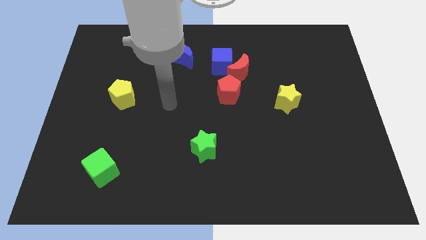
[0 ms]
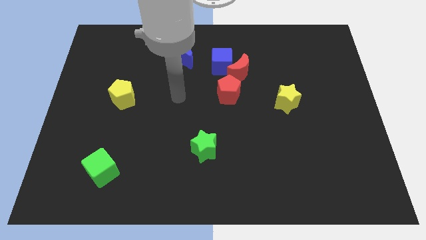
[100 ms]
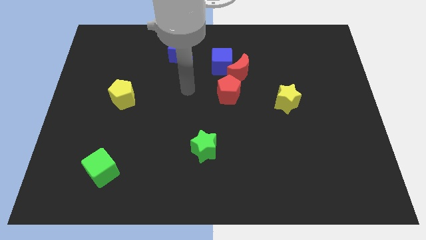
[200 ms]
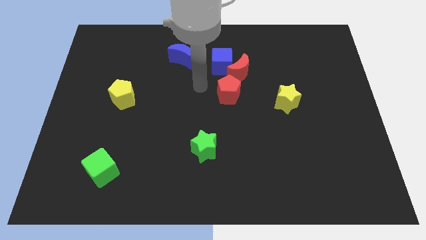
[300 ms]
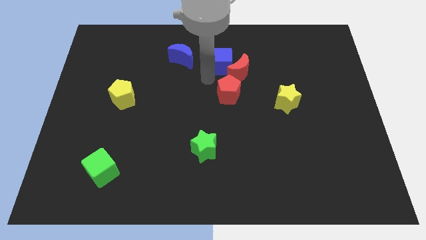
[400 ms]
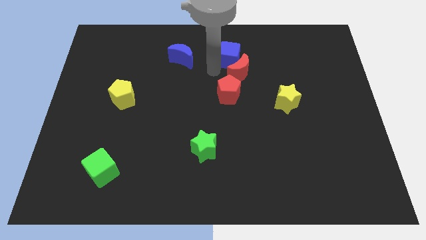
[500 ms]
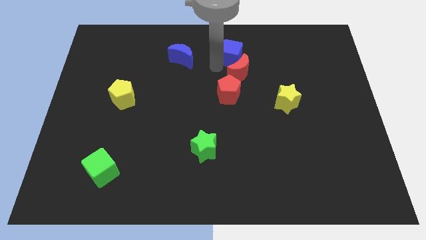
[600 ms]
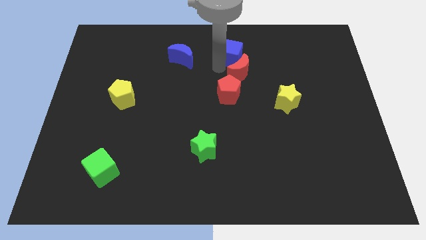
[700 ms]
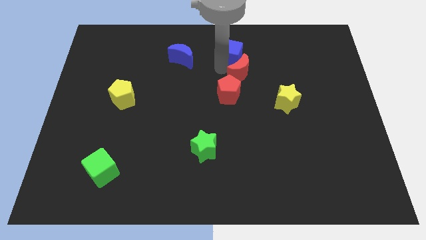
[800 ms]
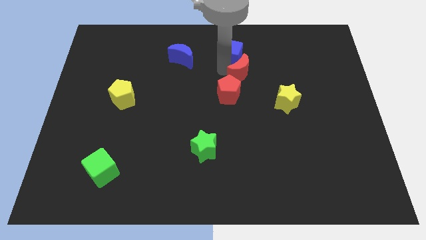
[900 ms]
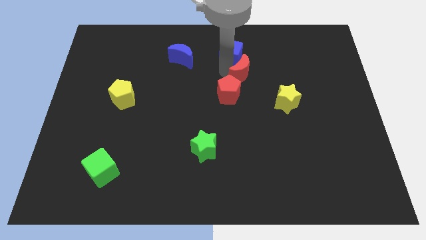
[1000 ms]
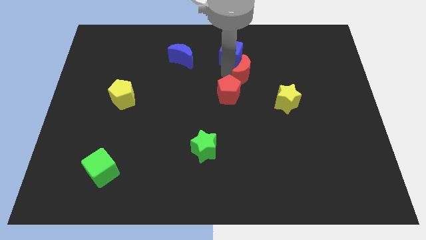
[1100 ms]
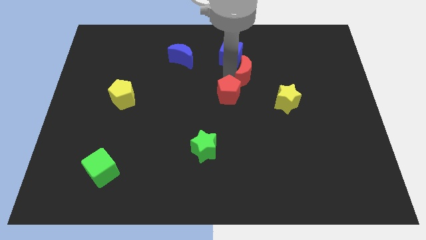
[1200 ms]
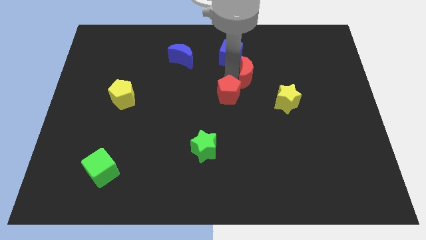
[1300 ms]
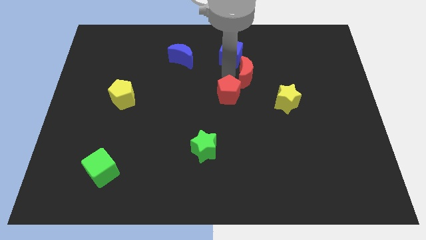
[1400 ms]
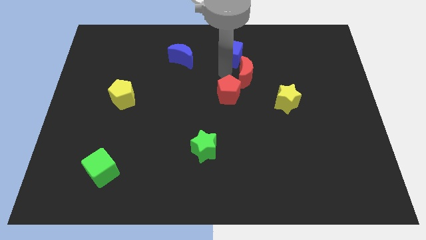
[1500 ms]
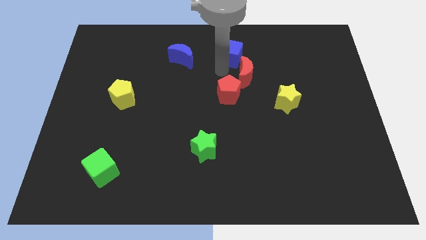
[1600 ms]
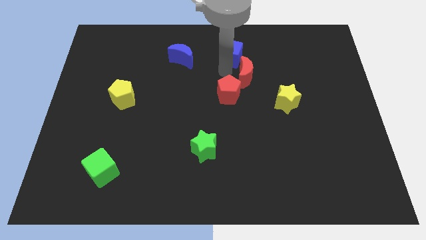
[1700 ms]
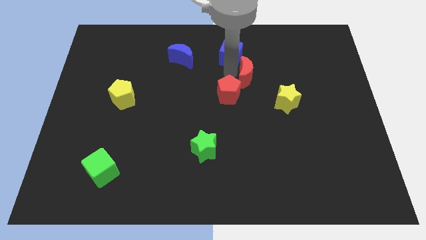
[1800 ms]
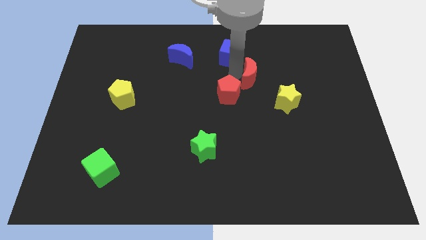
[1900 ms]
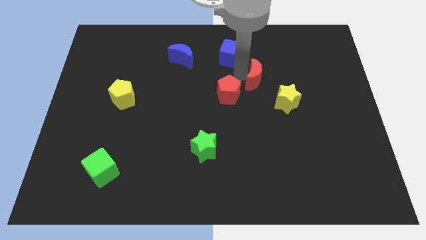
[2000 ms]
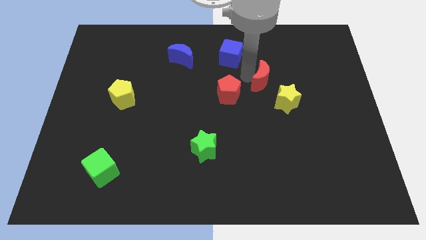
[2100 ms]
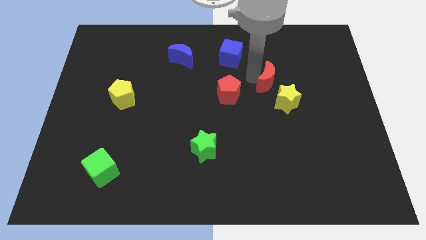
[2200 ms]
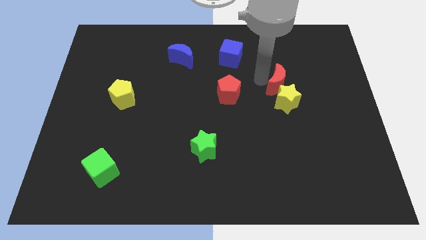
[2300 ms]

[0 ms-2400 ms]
slightly push the red moon downwards and then right

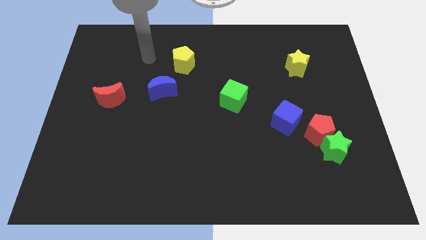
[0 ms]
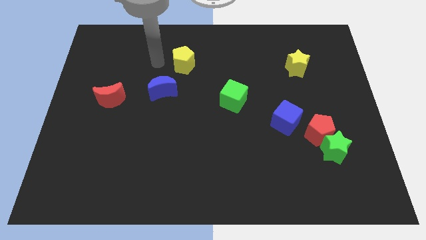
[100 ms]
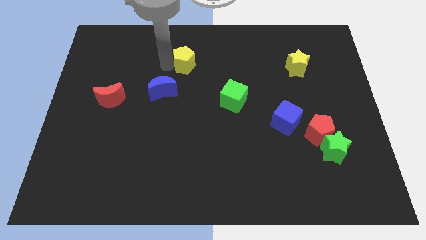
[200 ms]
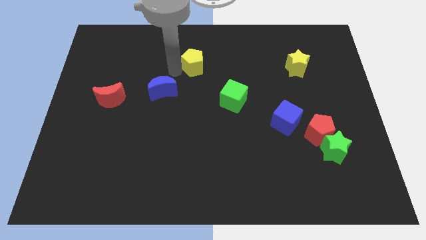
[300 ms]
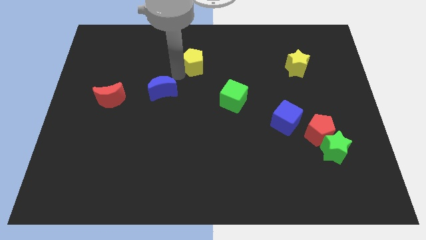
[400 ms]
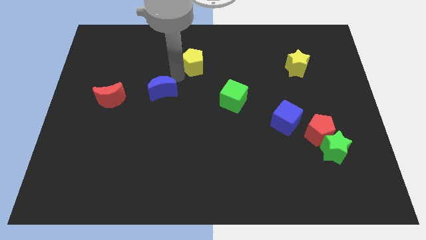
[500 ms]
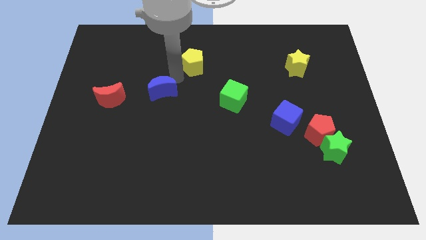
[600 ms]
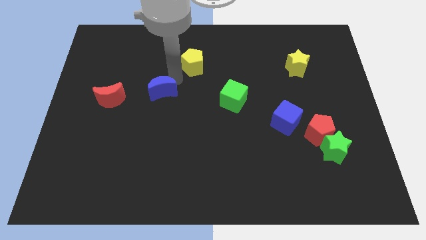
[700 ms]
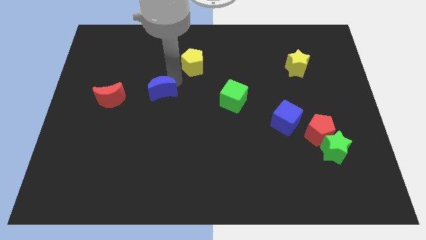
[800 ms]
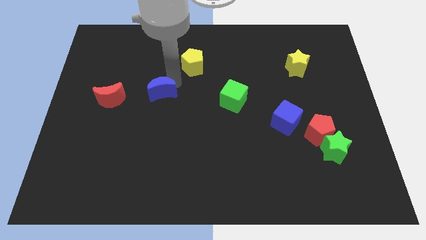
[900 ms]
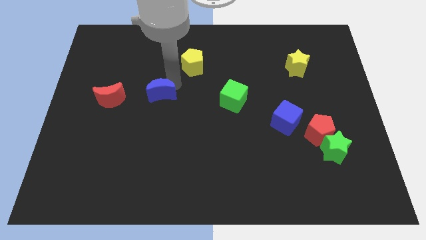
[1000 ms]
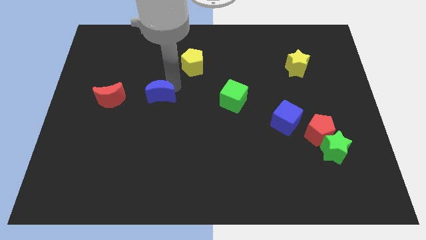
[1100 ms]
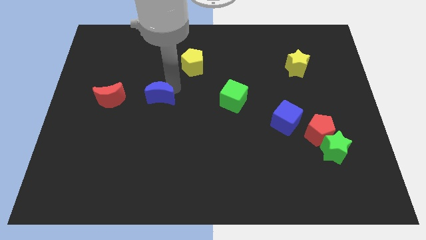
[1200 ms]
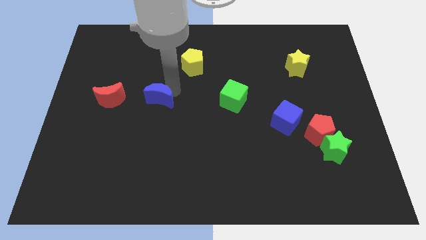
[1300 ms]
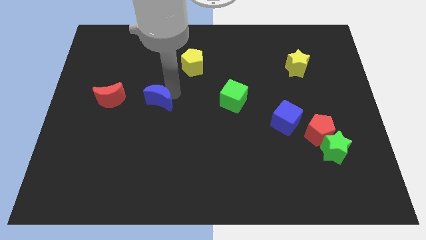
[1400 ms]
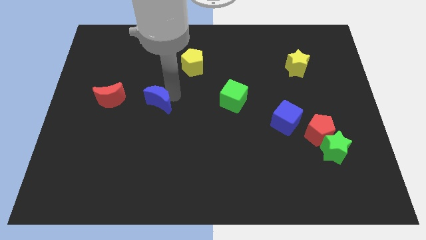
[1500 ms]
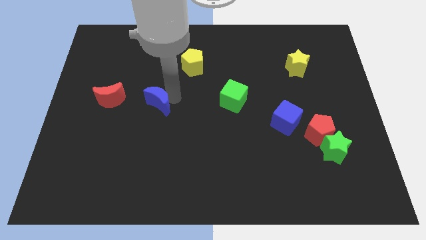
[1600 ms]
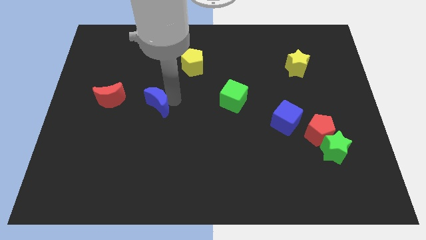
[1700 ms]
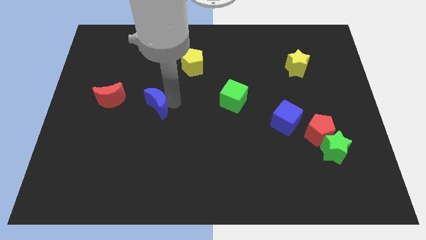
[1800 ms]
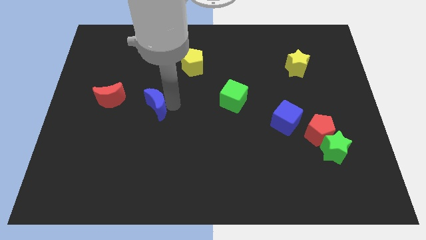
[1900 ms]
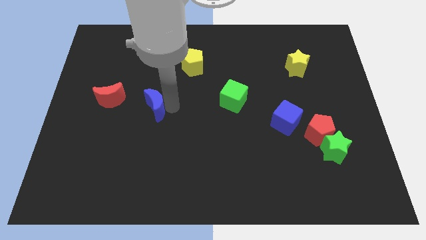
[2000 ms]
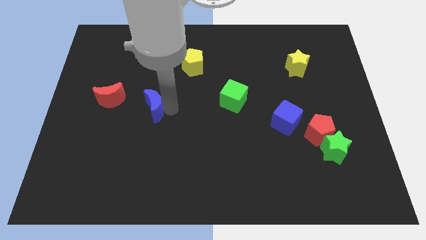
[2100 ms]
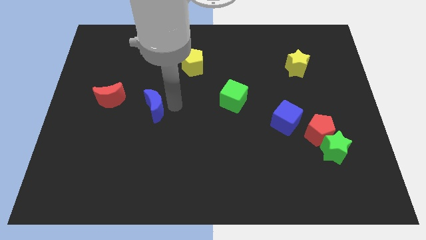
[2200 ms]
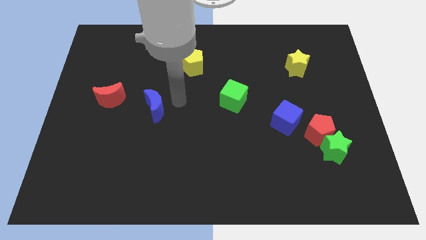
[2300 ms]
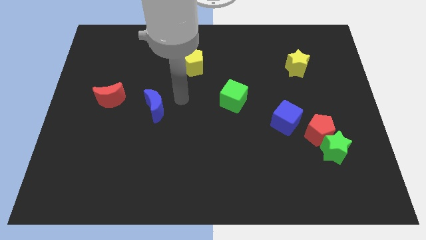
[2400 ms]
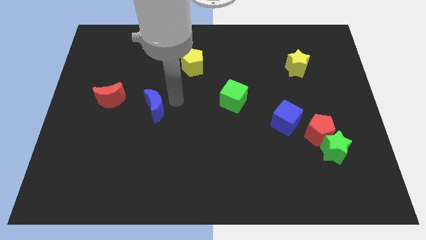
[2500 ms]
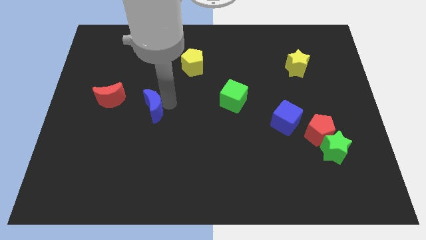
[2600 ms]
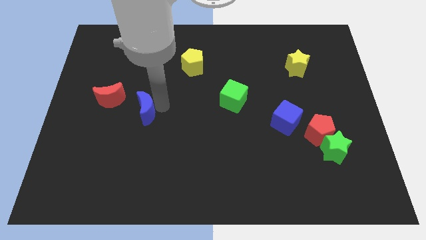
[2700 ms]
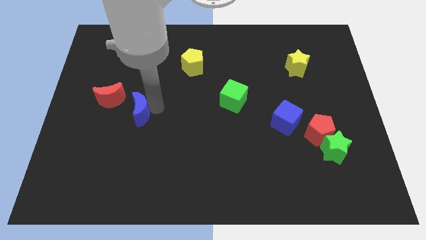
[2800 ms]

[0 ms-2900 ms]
slightly slide the blue moon diagonally downwards and left

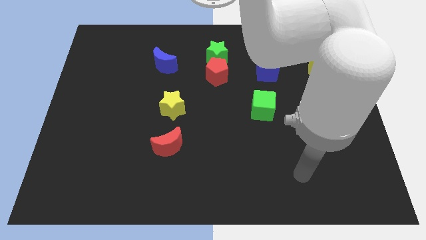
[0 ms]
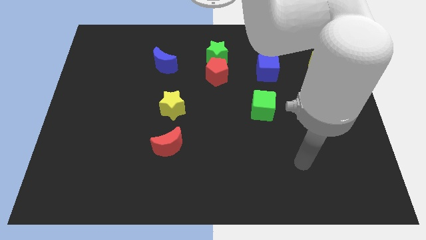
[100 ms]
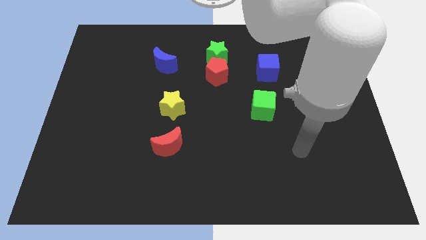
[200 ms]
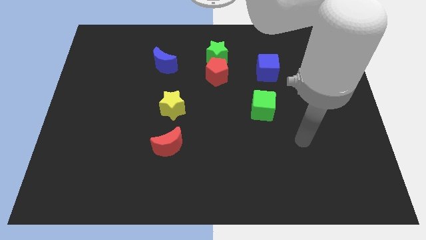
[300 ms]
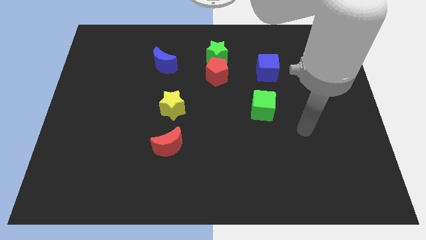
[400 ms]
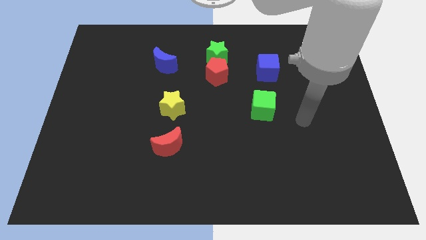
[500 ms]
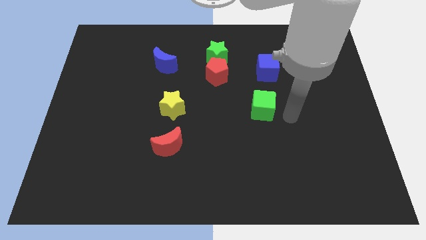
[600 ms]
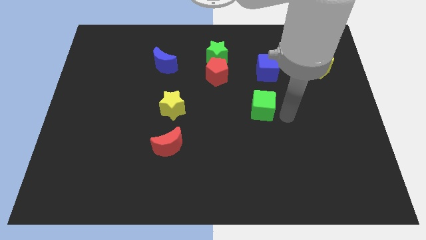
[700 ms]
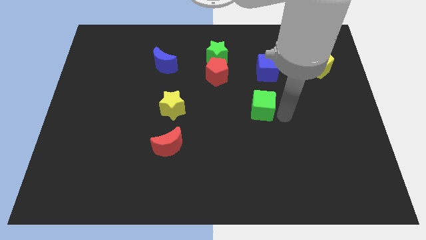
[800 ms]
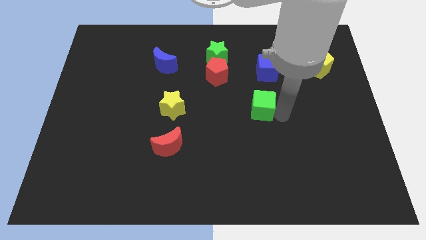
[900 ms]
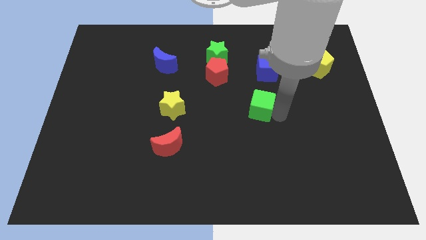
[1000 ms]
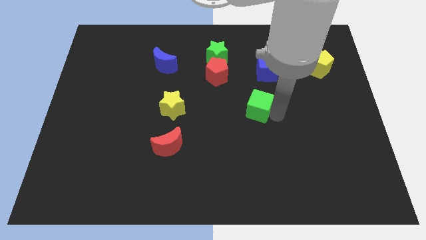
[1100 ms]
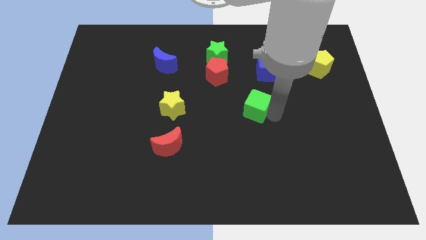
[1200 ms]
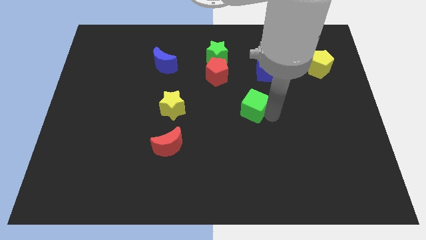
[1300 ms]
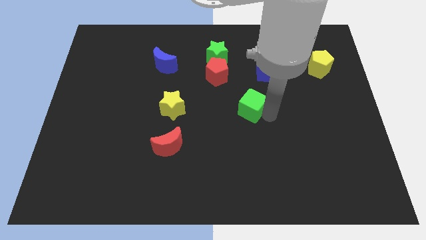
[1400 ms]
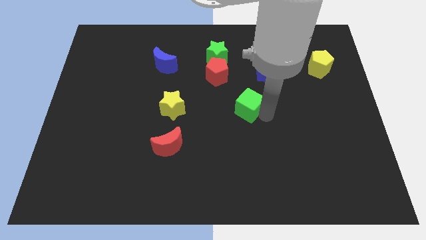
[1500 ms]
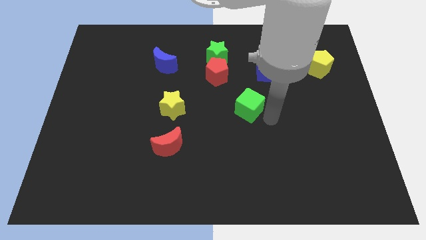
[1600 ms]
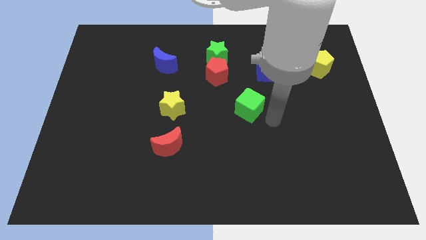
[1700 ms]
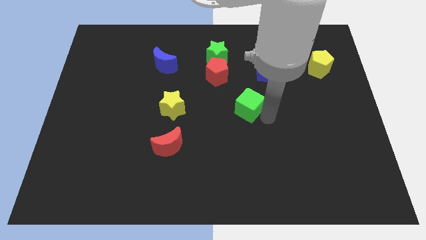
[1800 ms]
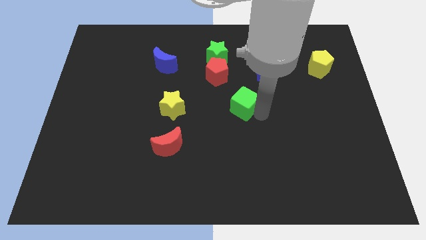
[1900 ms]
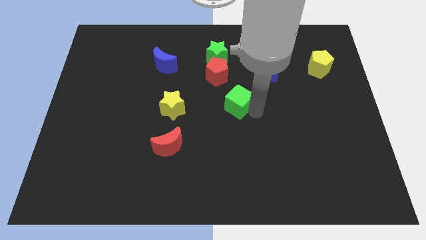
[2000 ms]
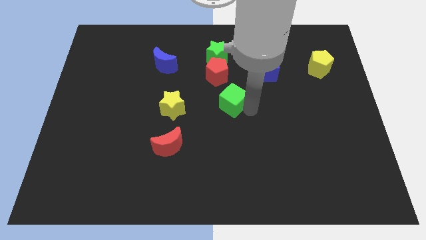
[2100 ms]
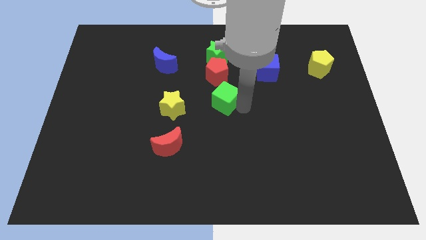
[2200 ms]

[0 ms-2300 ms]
slightly move the green cube up and then left

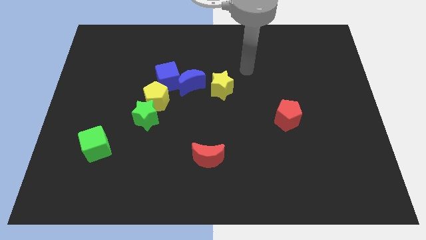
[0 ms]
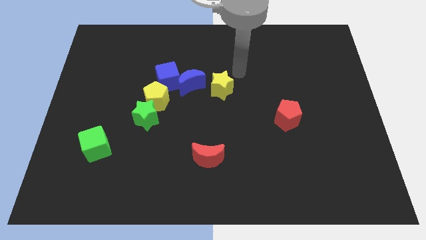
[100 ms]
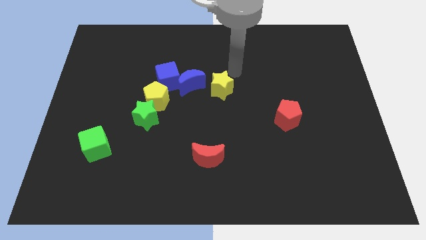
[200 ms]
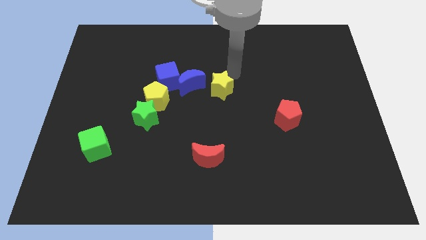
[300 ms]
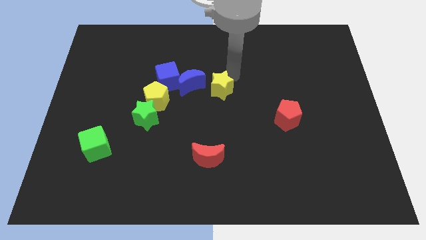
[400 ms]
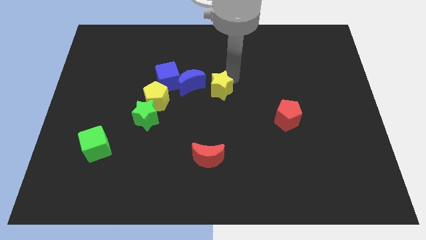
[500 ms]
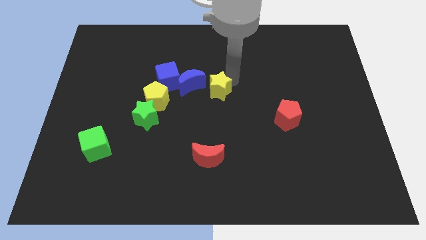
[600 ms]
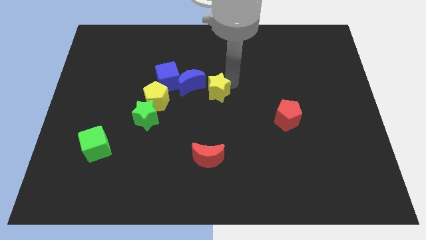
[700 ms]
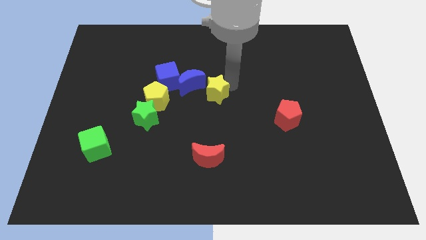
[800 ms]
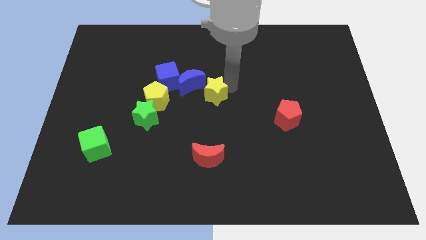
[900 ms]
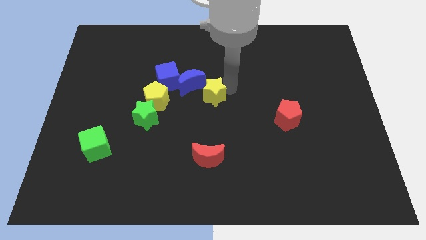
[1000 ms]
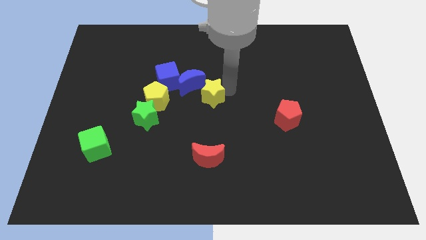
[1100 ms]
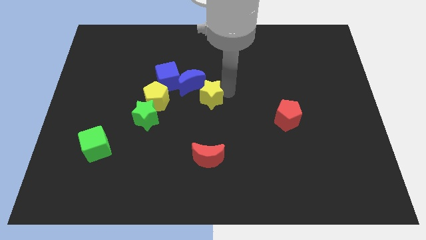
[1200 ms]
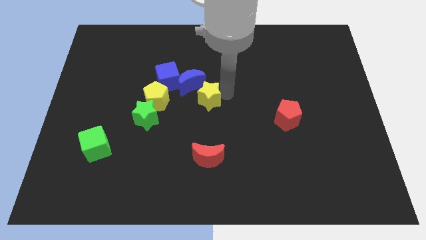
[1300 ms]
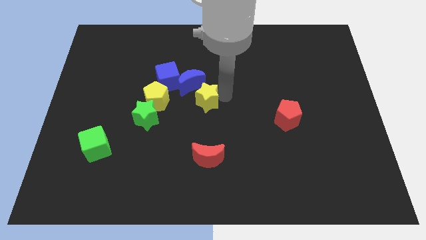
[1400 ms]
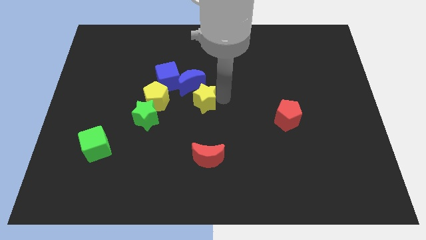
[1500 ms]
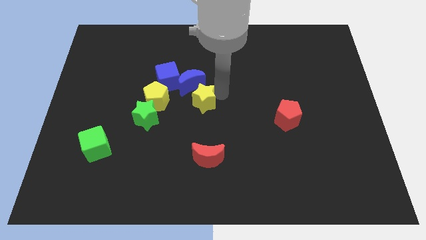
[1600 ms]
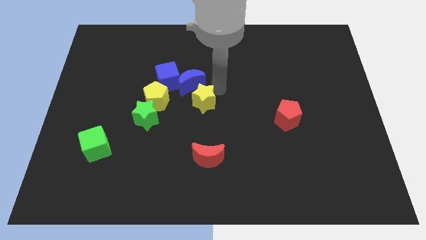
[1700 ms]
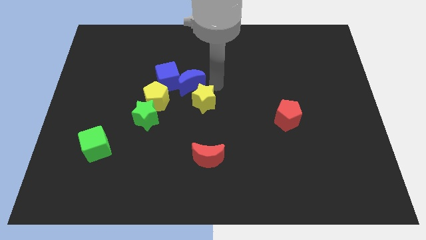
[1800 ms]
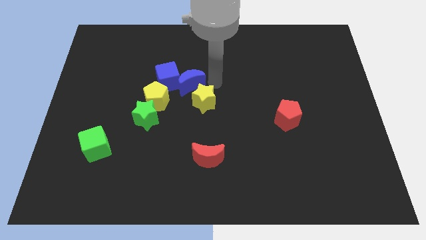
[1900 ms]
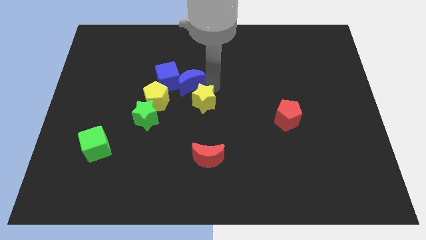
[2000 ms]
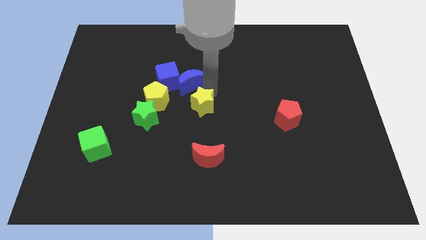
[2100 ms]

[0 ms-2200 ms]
push the yellow star diagonally downwards and to the left a bit
